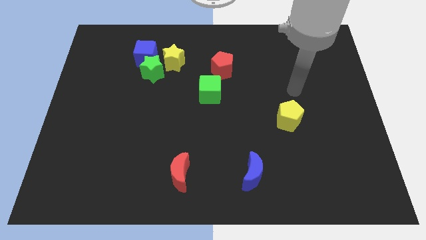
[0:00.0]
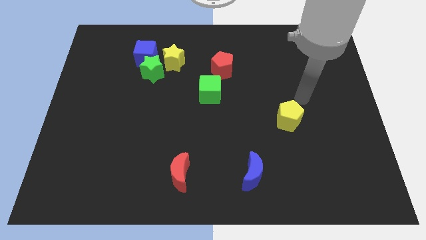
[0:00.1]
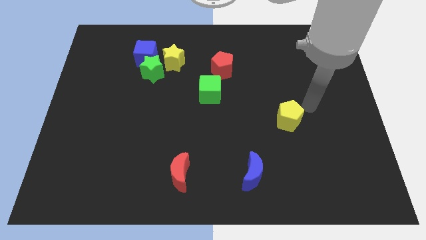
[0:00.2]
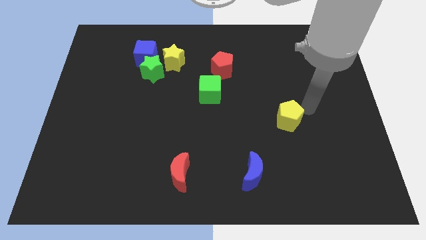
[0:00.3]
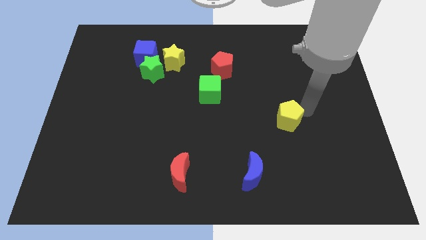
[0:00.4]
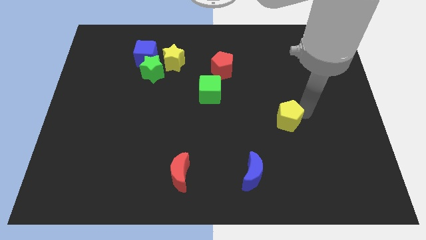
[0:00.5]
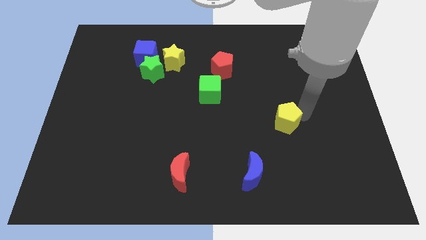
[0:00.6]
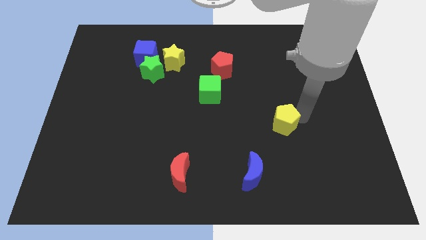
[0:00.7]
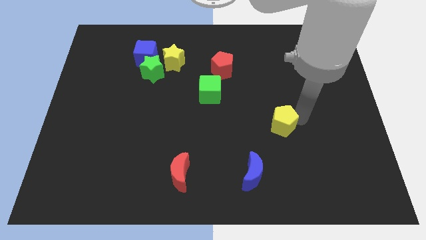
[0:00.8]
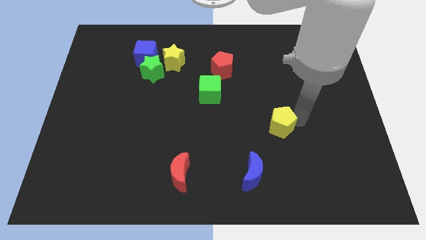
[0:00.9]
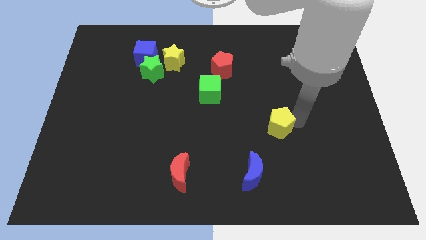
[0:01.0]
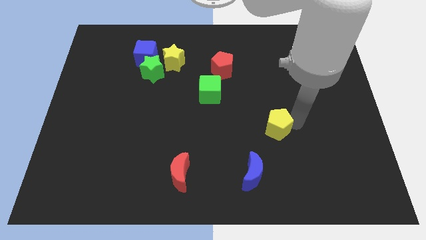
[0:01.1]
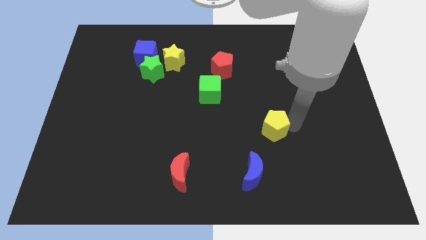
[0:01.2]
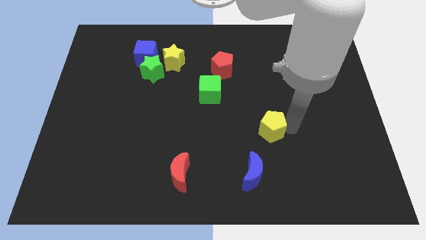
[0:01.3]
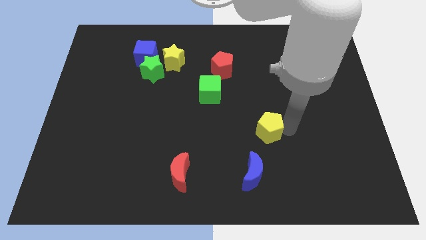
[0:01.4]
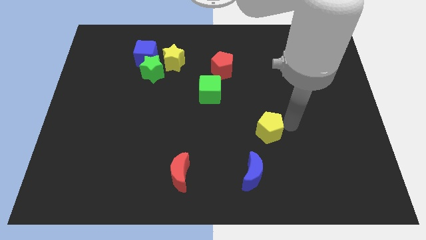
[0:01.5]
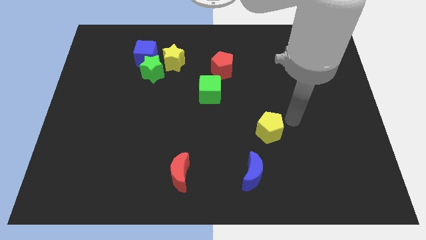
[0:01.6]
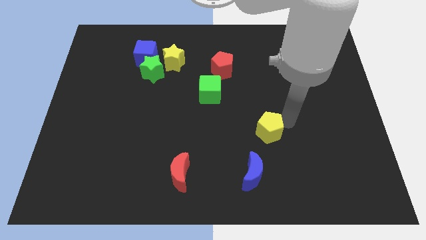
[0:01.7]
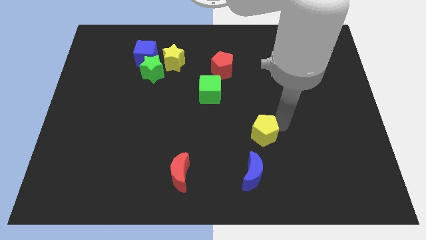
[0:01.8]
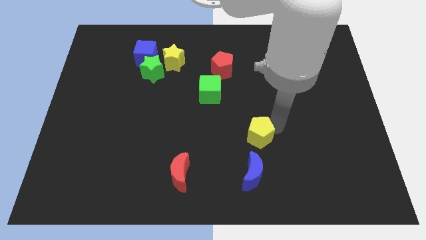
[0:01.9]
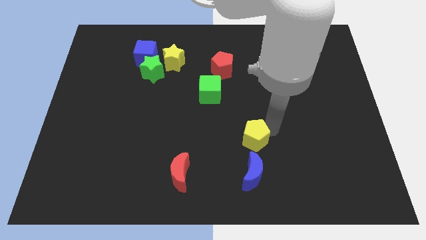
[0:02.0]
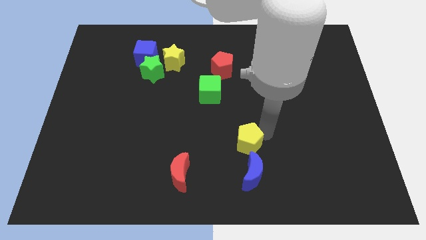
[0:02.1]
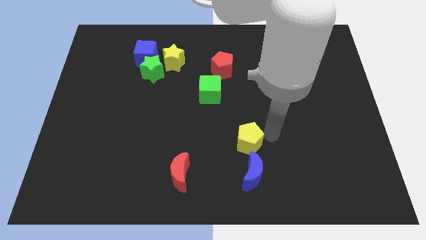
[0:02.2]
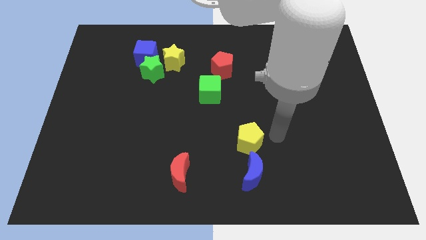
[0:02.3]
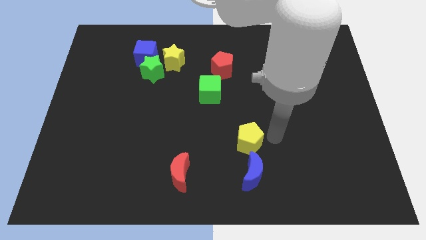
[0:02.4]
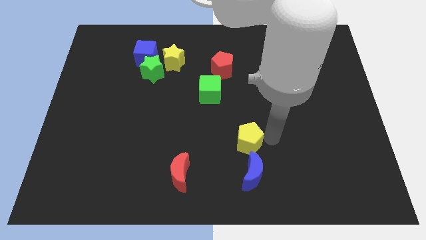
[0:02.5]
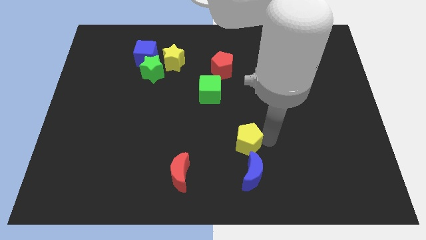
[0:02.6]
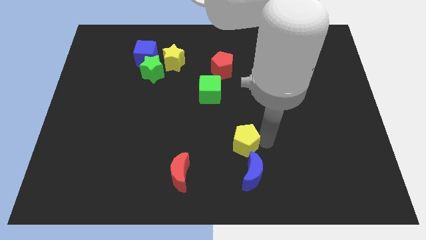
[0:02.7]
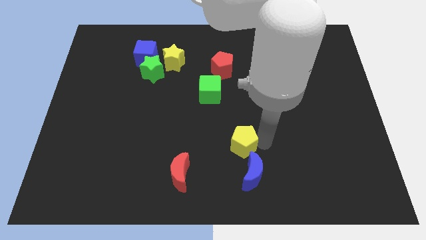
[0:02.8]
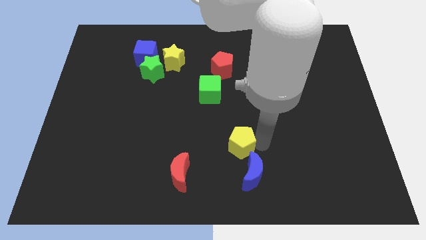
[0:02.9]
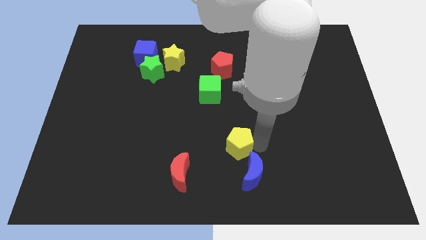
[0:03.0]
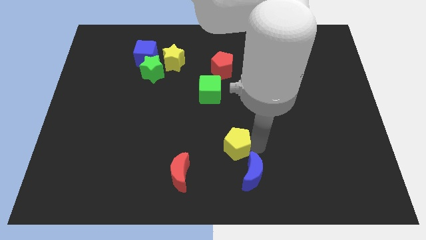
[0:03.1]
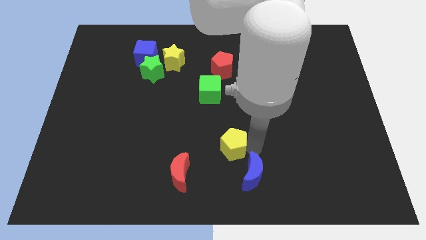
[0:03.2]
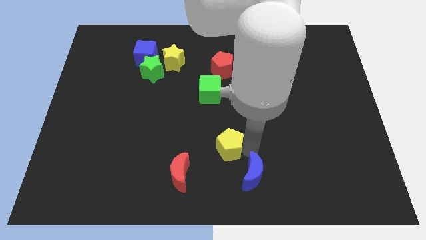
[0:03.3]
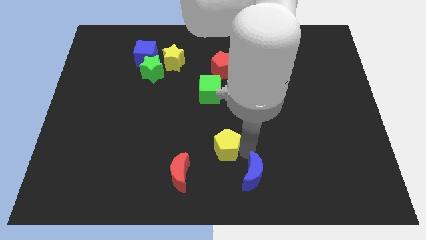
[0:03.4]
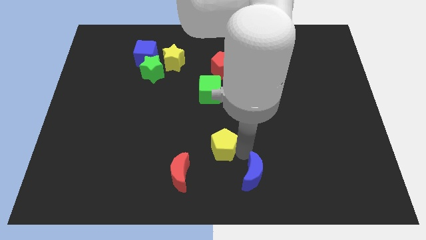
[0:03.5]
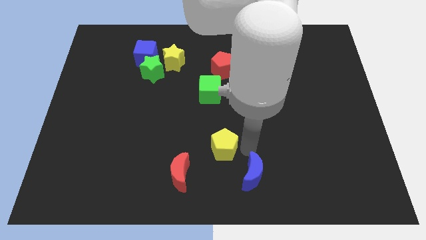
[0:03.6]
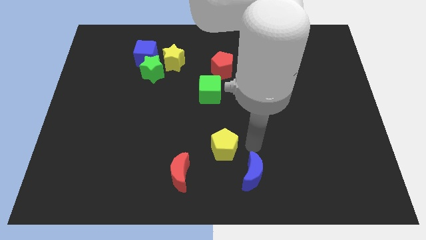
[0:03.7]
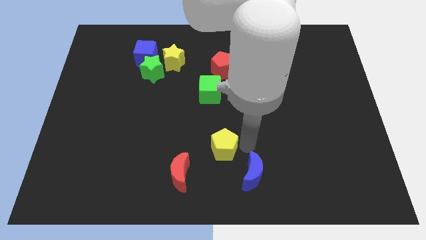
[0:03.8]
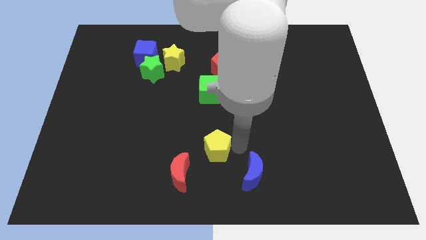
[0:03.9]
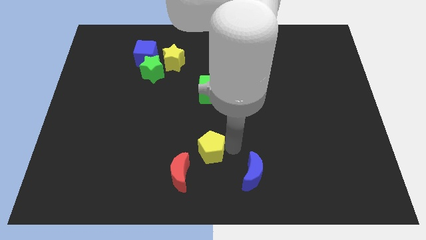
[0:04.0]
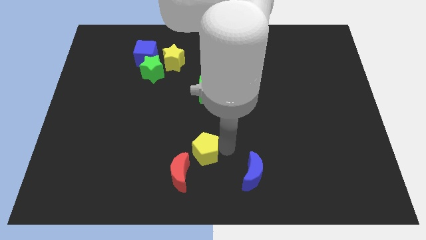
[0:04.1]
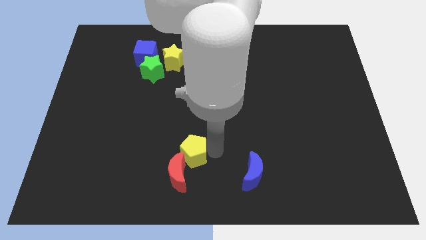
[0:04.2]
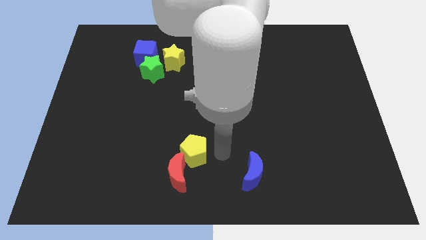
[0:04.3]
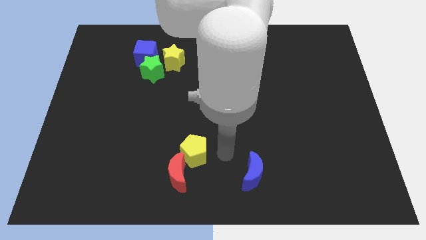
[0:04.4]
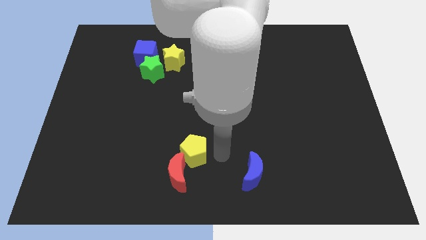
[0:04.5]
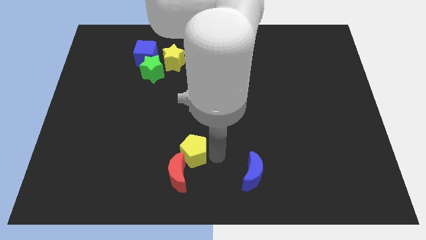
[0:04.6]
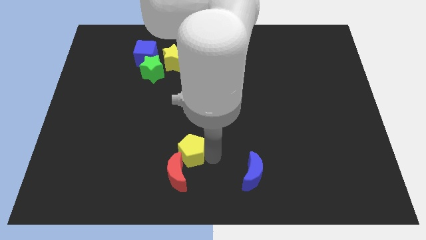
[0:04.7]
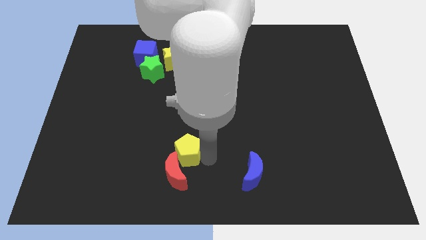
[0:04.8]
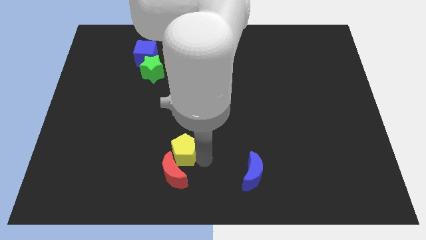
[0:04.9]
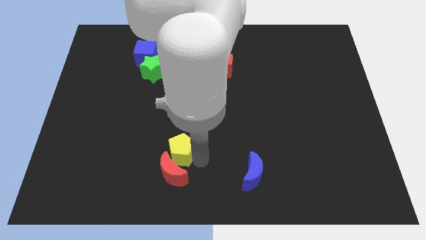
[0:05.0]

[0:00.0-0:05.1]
put the yellow pentagon to the top left of the red moon

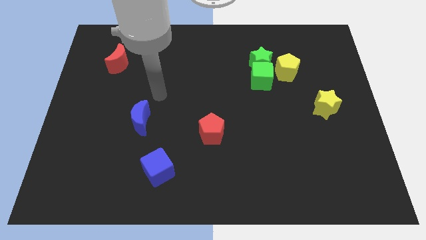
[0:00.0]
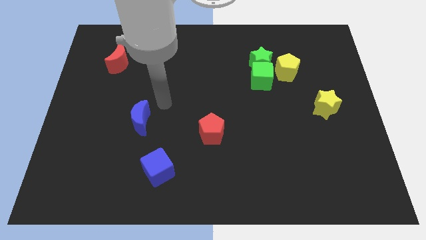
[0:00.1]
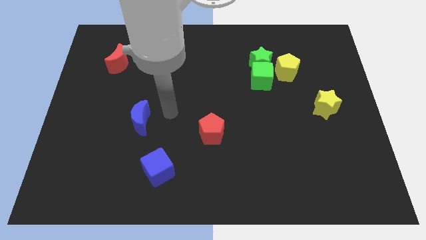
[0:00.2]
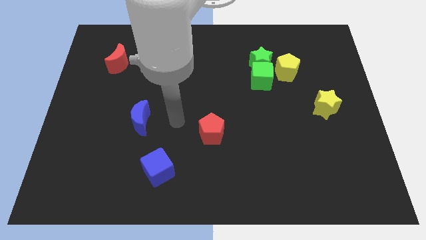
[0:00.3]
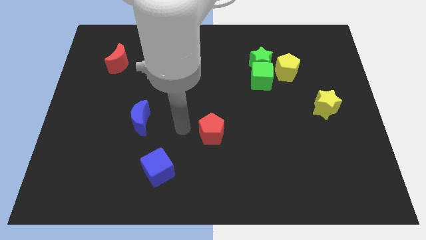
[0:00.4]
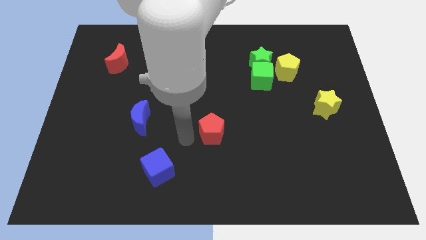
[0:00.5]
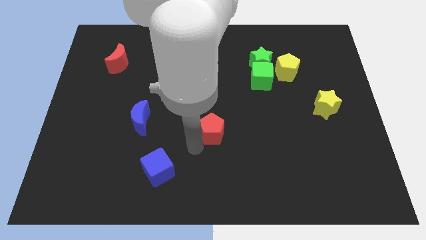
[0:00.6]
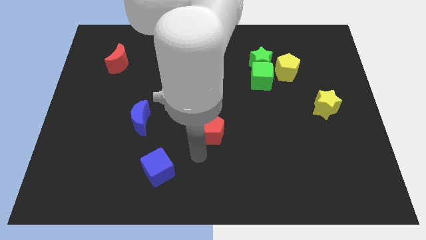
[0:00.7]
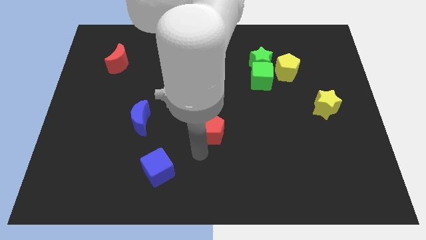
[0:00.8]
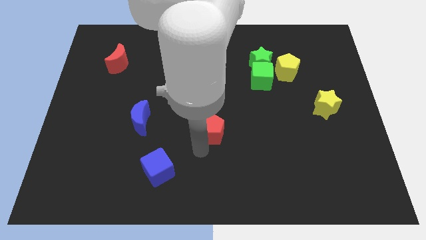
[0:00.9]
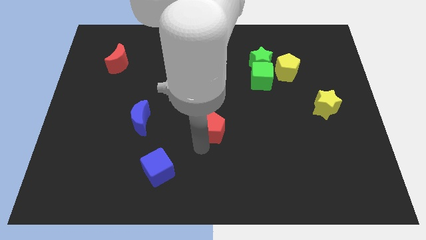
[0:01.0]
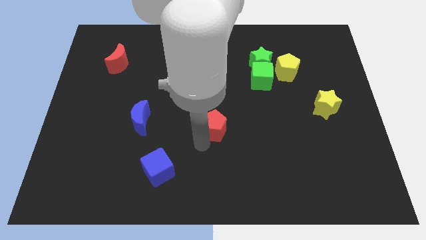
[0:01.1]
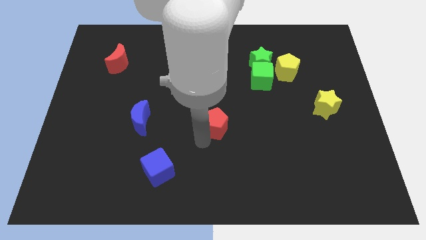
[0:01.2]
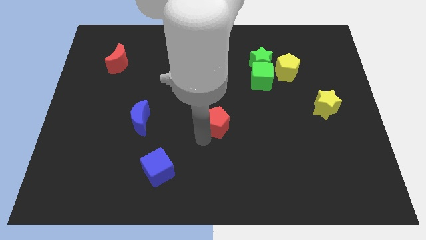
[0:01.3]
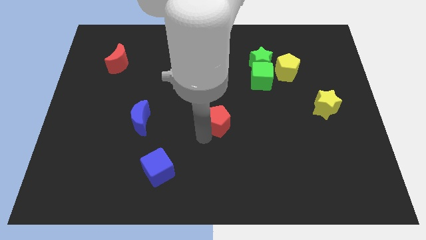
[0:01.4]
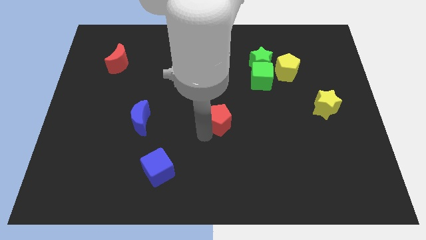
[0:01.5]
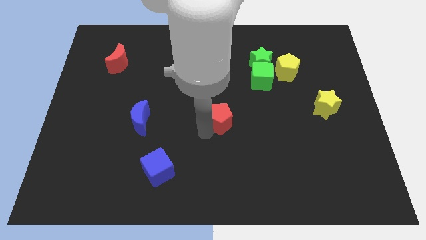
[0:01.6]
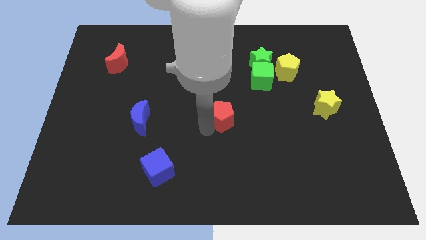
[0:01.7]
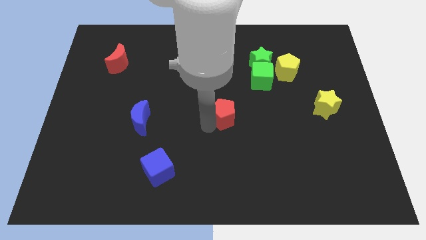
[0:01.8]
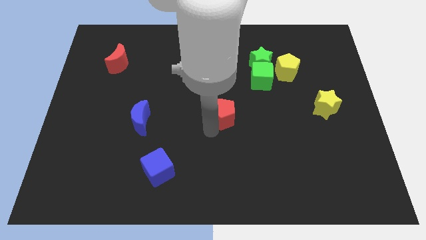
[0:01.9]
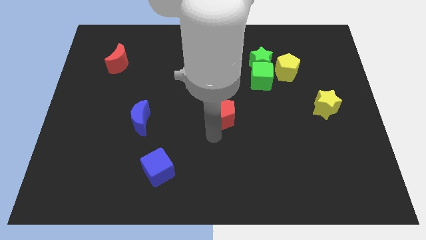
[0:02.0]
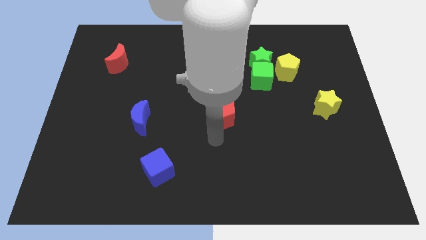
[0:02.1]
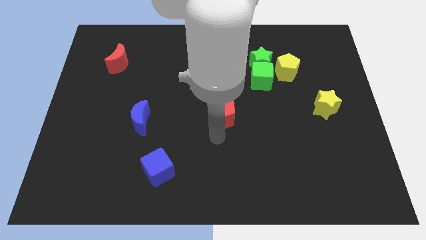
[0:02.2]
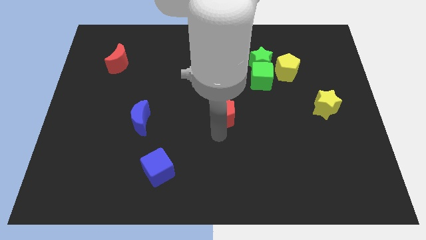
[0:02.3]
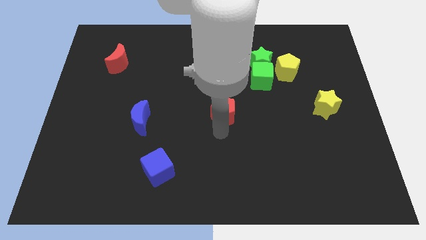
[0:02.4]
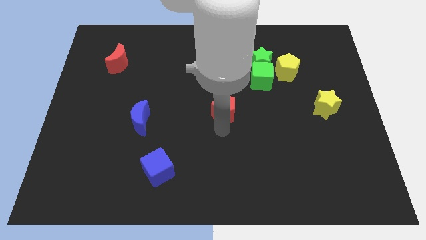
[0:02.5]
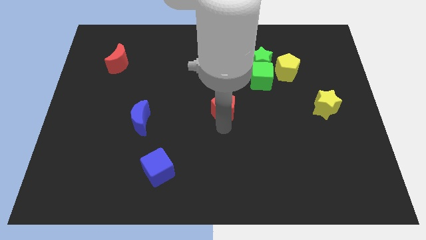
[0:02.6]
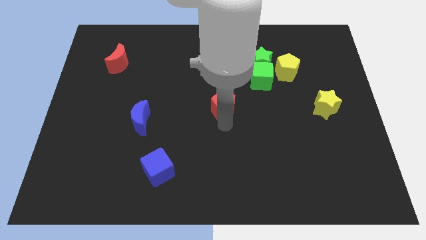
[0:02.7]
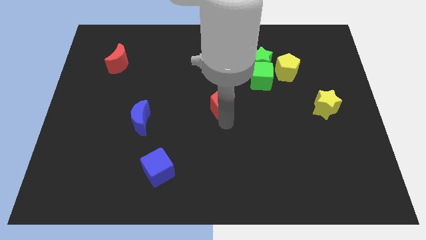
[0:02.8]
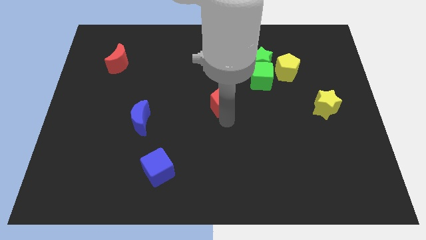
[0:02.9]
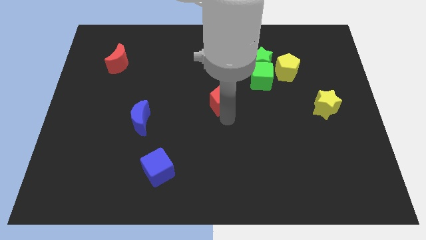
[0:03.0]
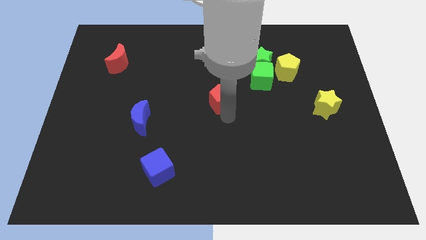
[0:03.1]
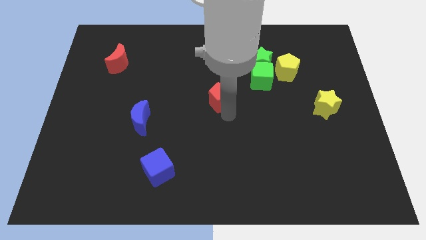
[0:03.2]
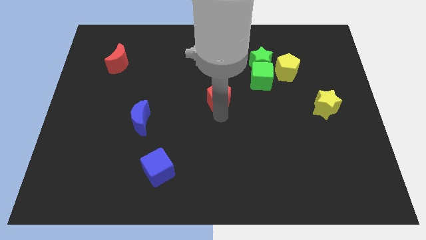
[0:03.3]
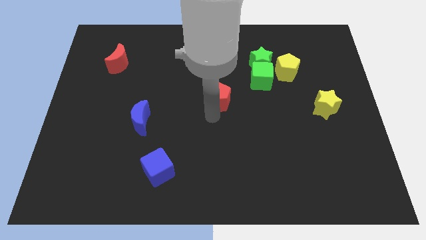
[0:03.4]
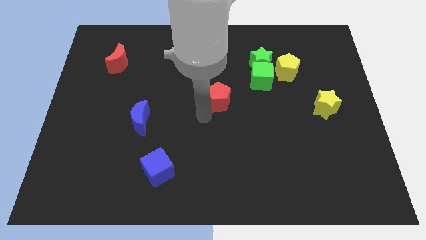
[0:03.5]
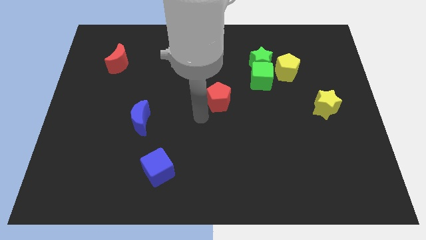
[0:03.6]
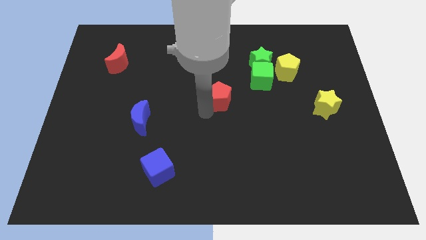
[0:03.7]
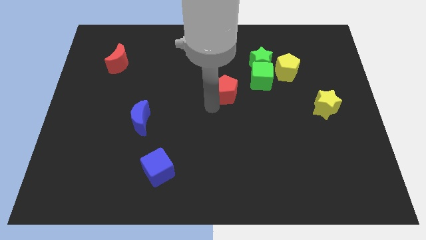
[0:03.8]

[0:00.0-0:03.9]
move the red pentagon to the bottom left of the green star
